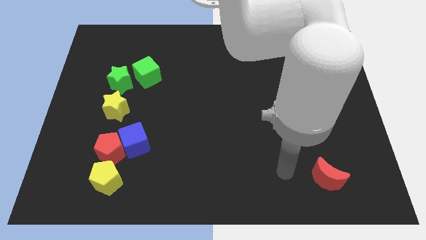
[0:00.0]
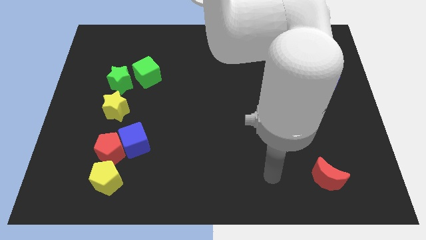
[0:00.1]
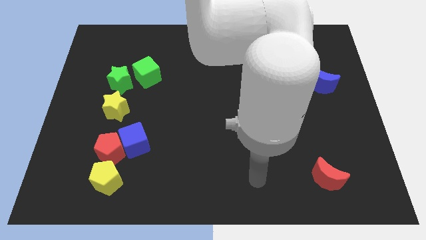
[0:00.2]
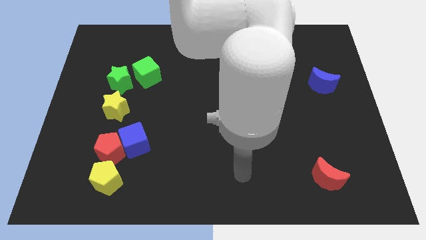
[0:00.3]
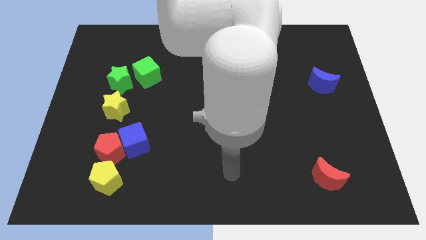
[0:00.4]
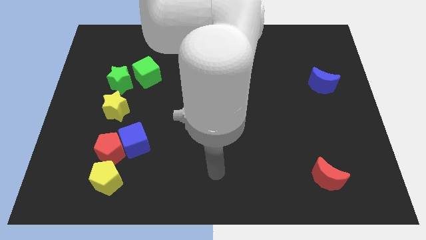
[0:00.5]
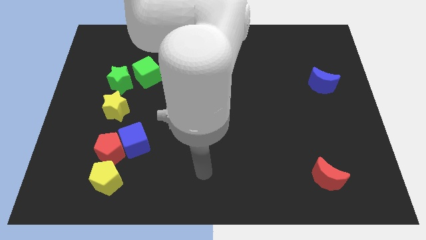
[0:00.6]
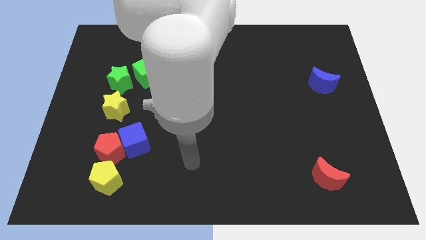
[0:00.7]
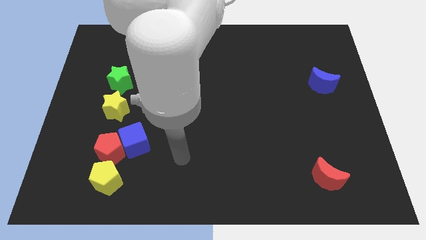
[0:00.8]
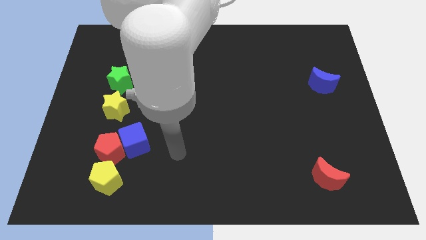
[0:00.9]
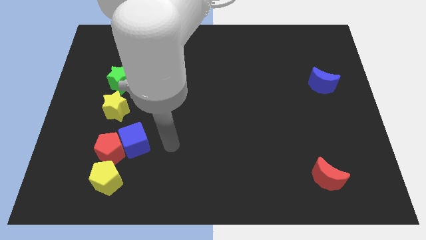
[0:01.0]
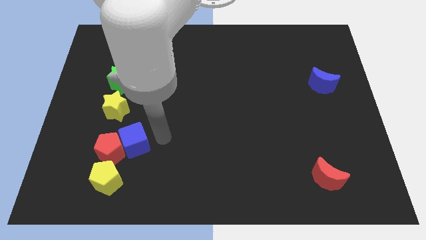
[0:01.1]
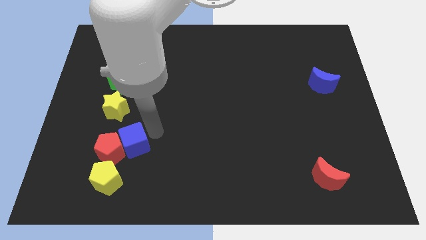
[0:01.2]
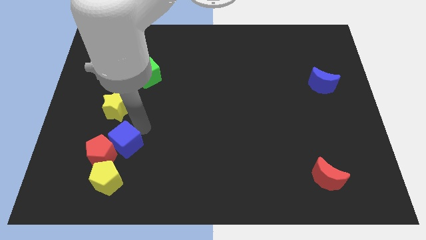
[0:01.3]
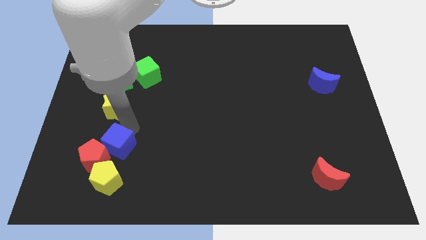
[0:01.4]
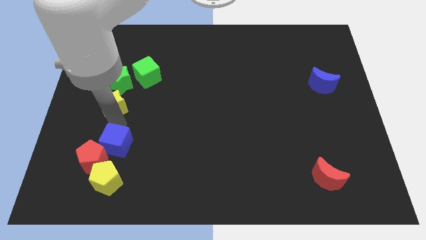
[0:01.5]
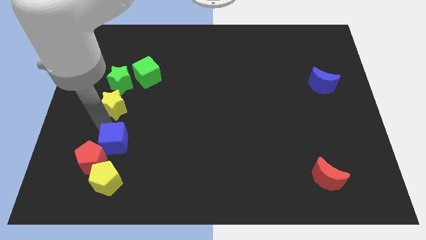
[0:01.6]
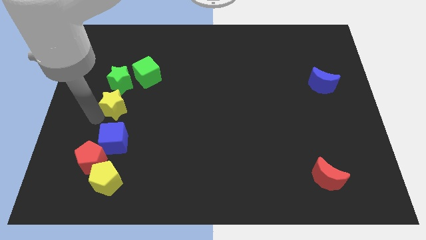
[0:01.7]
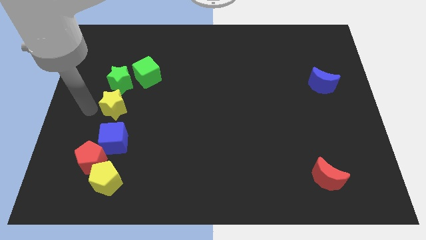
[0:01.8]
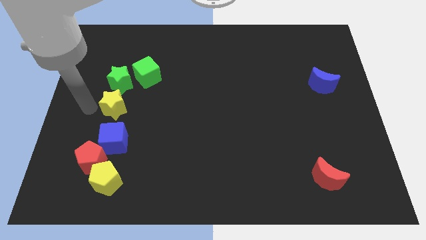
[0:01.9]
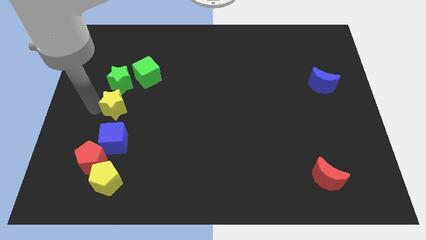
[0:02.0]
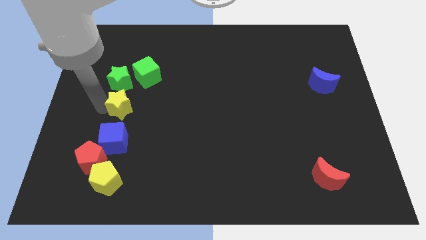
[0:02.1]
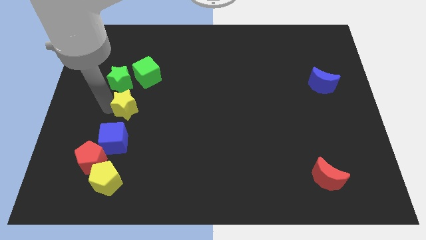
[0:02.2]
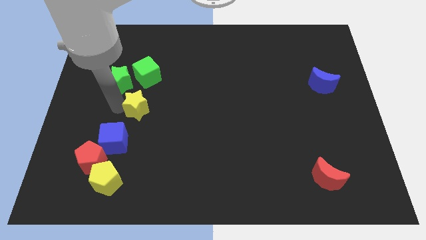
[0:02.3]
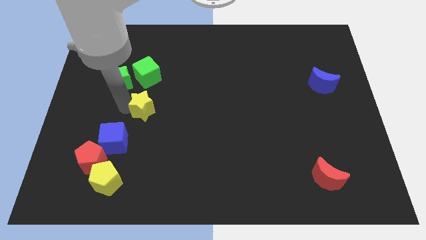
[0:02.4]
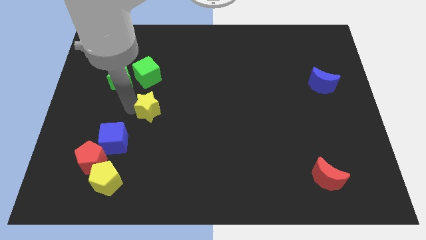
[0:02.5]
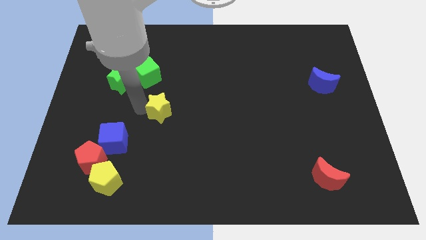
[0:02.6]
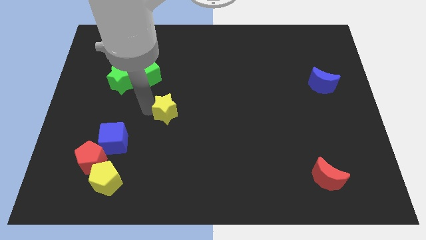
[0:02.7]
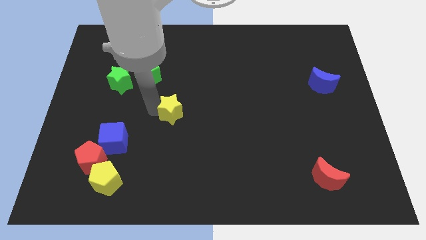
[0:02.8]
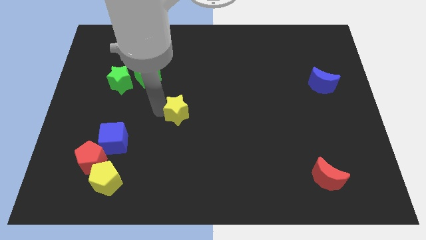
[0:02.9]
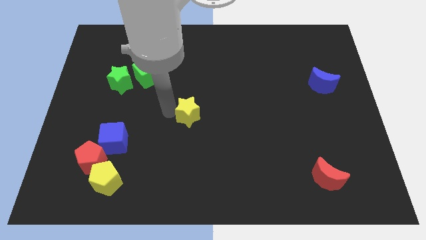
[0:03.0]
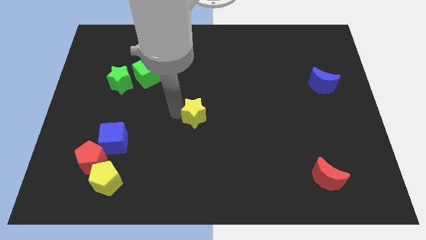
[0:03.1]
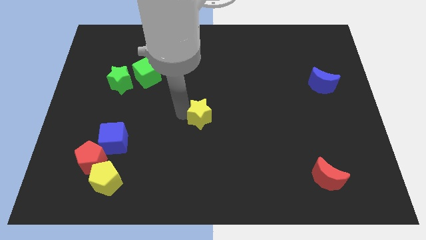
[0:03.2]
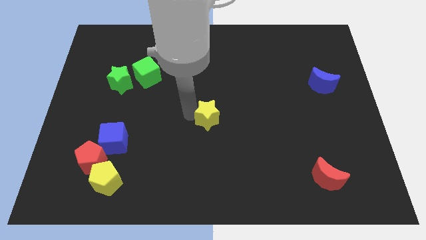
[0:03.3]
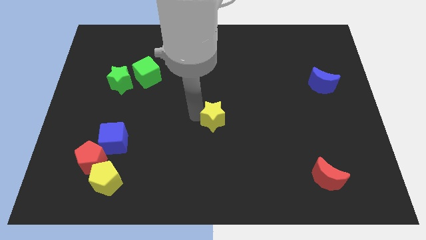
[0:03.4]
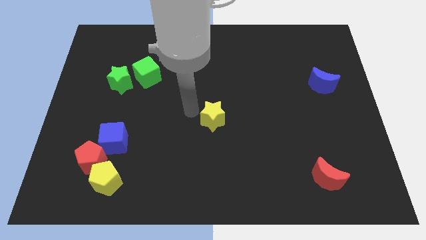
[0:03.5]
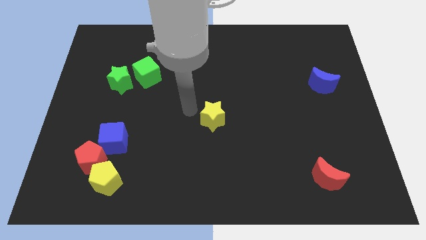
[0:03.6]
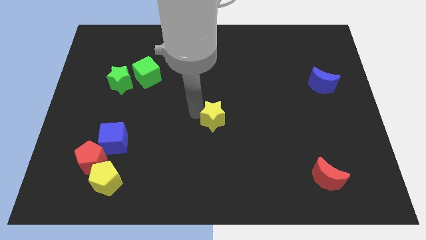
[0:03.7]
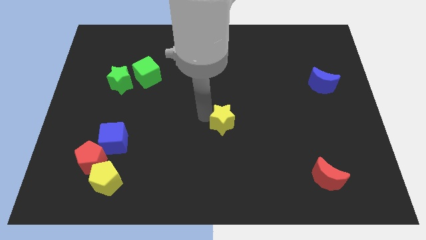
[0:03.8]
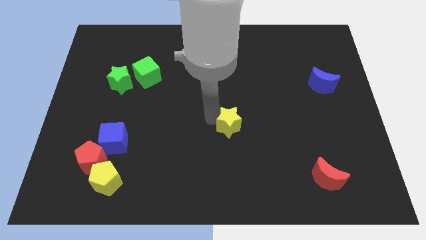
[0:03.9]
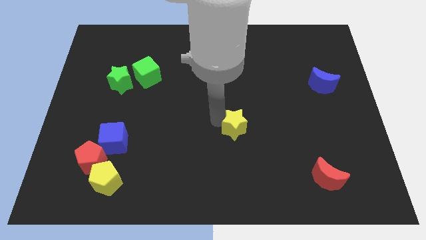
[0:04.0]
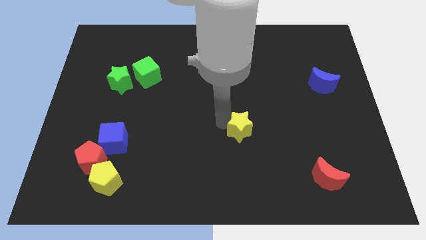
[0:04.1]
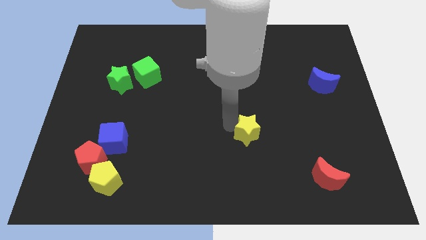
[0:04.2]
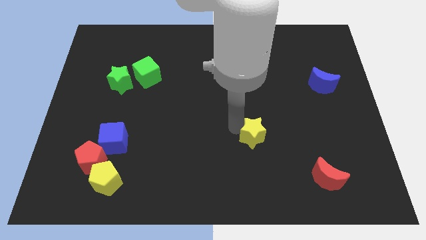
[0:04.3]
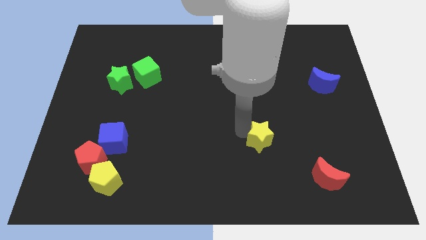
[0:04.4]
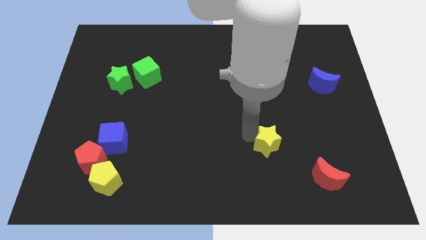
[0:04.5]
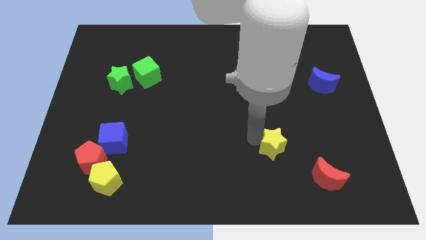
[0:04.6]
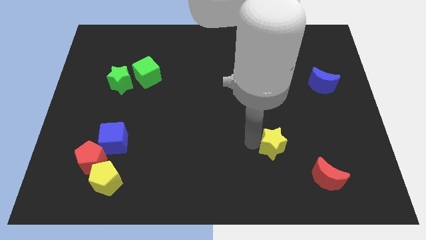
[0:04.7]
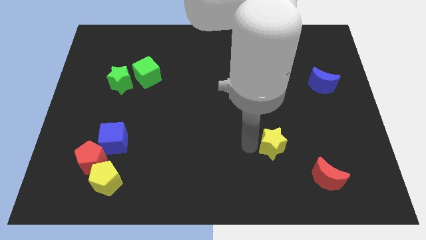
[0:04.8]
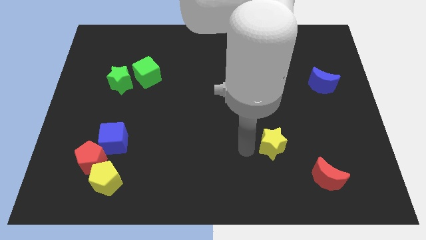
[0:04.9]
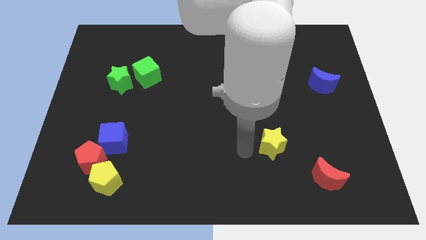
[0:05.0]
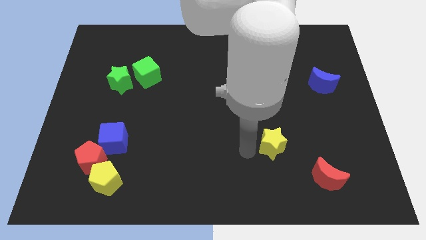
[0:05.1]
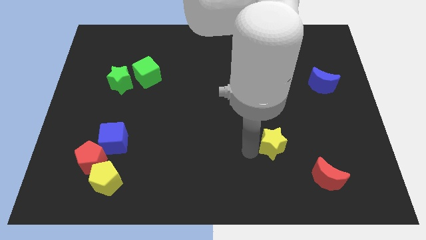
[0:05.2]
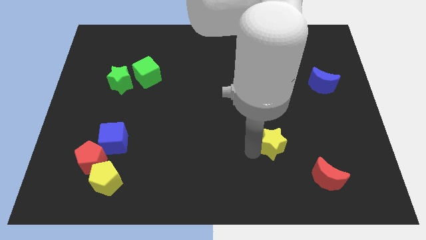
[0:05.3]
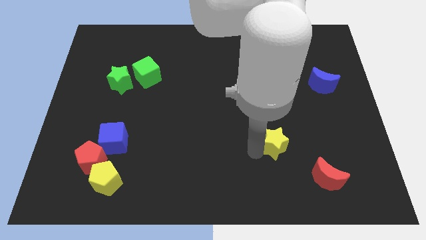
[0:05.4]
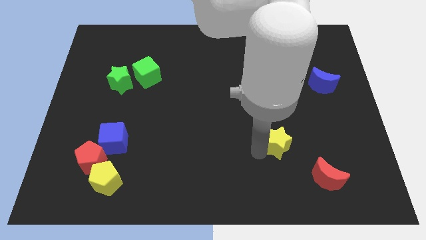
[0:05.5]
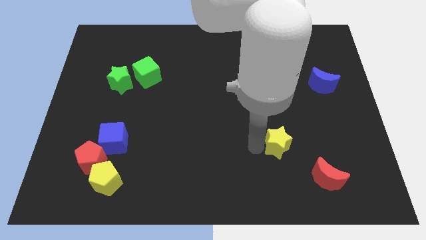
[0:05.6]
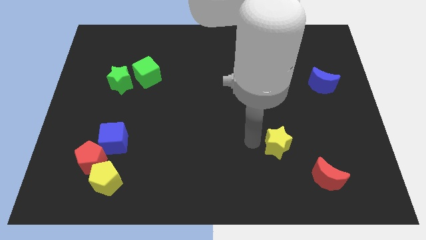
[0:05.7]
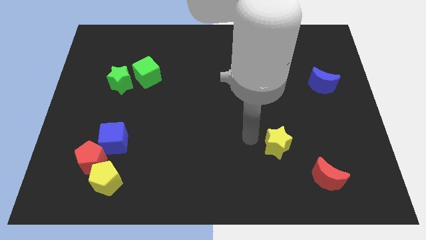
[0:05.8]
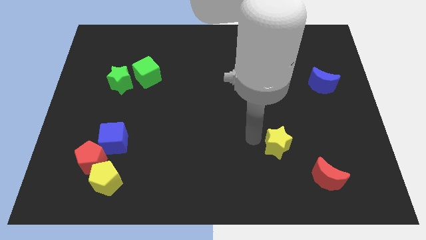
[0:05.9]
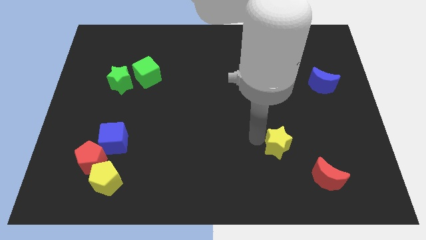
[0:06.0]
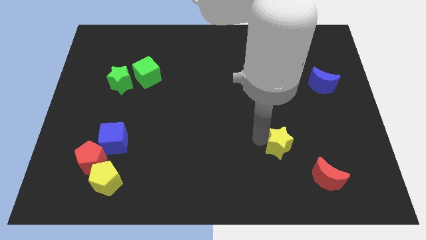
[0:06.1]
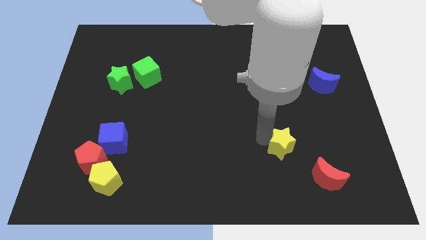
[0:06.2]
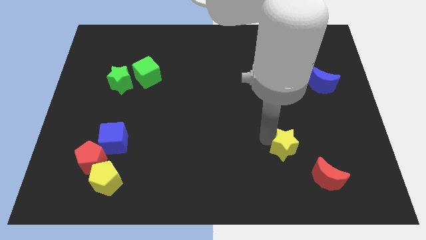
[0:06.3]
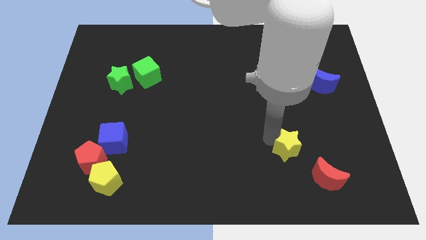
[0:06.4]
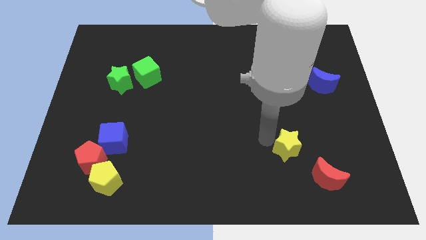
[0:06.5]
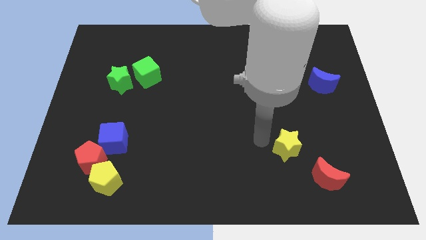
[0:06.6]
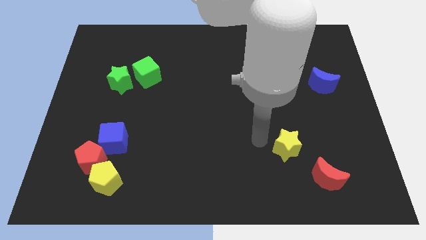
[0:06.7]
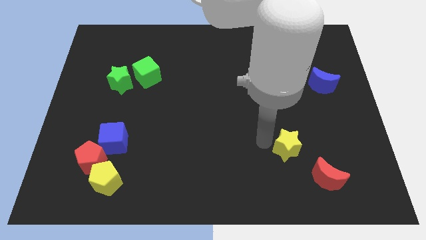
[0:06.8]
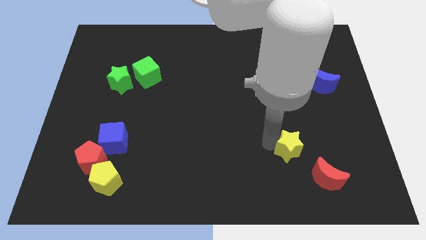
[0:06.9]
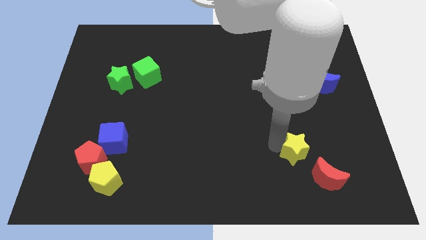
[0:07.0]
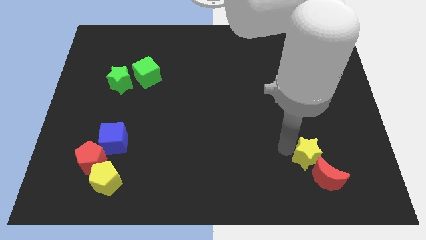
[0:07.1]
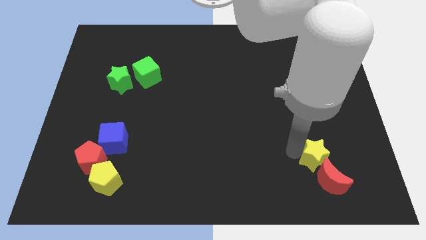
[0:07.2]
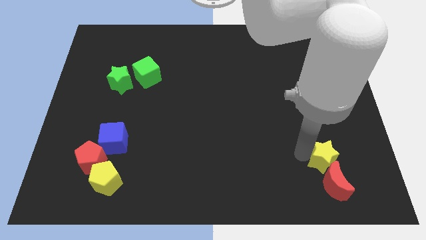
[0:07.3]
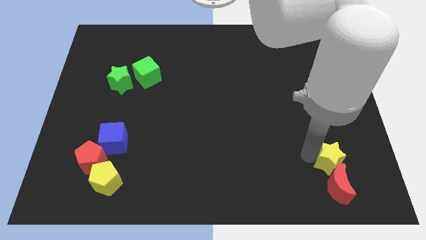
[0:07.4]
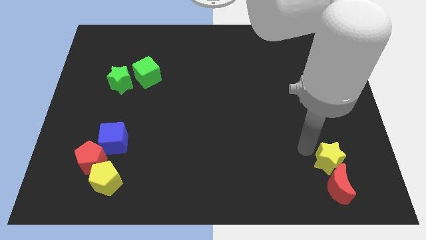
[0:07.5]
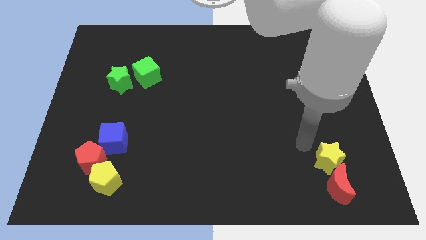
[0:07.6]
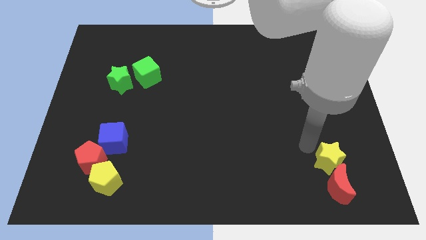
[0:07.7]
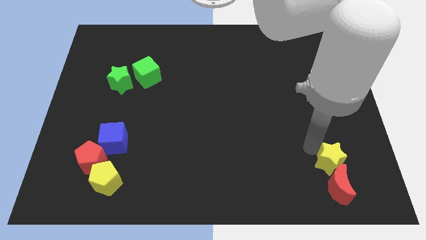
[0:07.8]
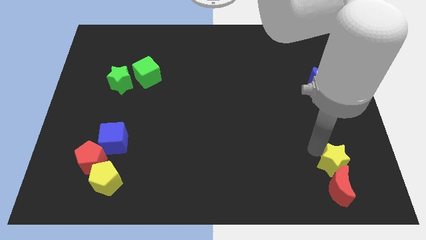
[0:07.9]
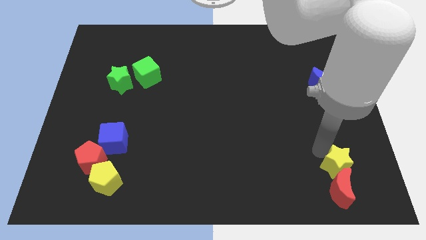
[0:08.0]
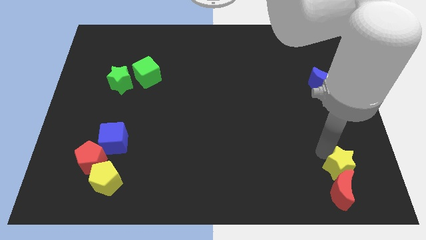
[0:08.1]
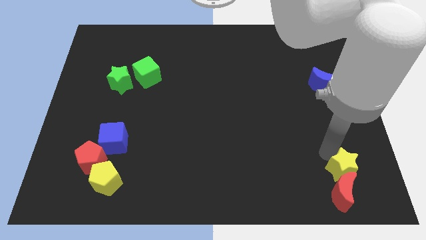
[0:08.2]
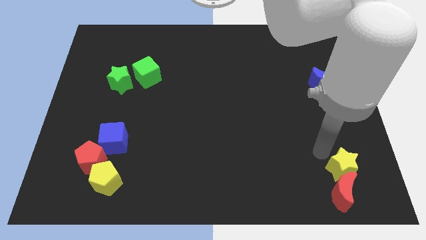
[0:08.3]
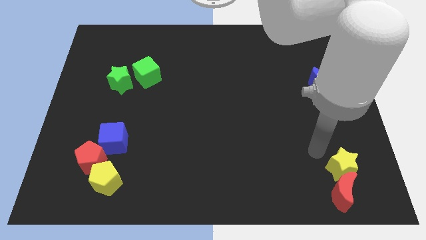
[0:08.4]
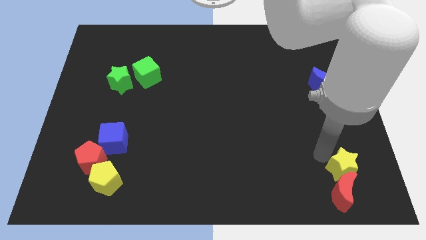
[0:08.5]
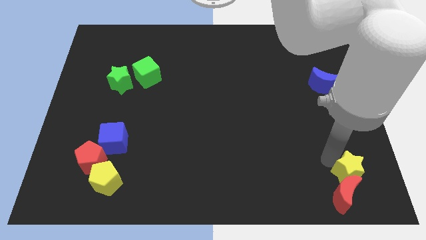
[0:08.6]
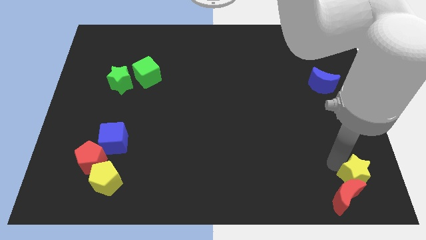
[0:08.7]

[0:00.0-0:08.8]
push the yellow star to the bottom right
